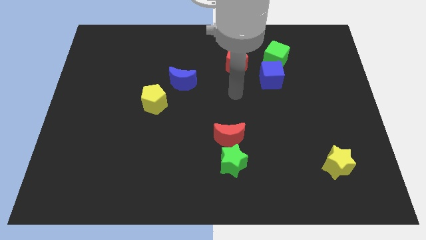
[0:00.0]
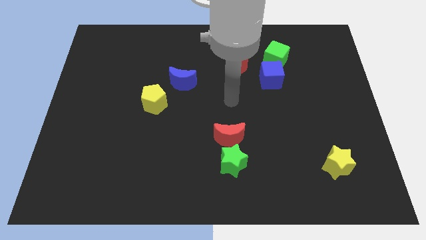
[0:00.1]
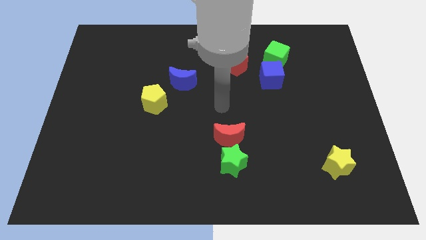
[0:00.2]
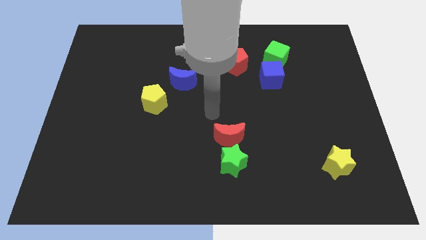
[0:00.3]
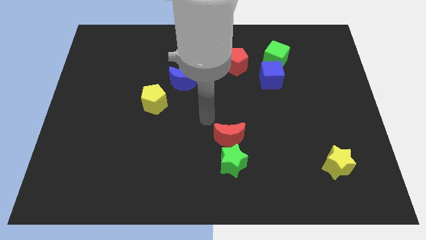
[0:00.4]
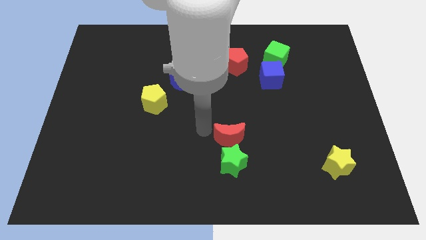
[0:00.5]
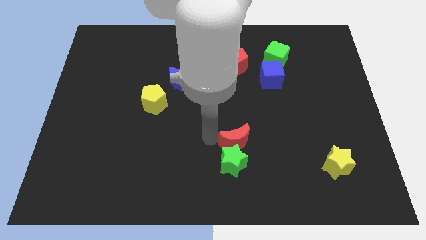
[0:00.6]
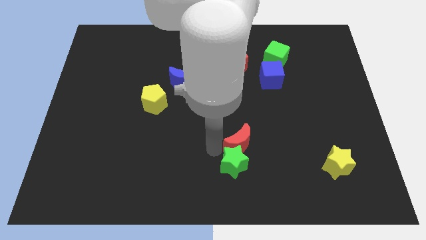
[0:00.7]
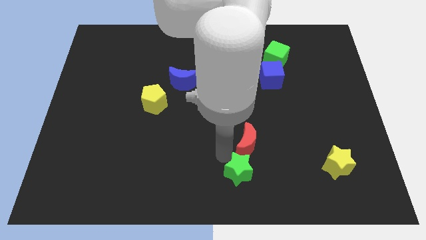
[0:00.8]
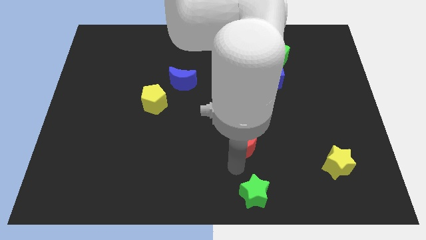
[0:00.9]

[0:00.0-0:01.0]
pull the red moon apart from the green star

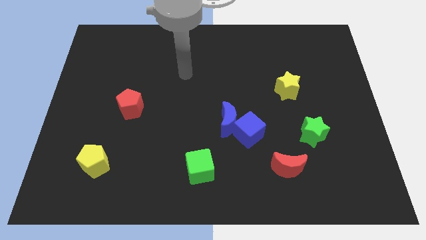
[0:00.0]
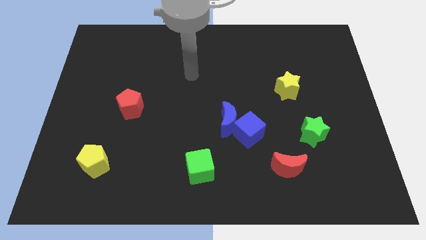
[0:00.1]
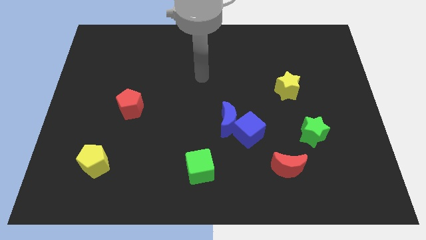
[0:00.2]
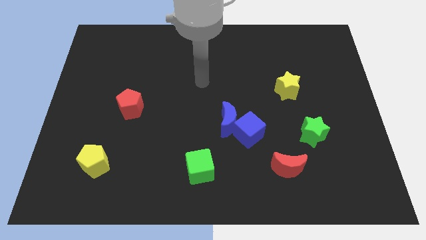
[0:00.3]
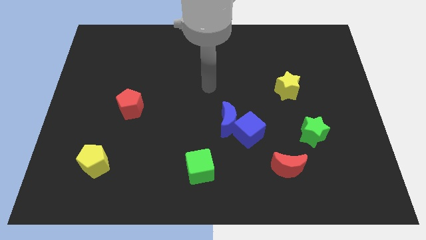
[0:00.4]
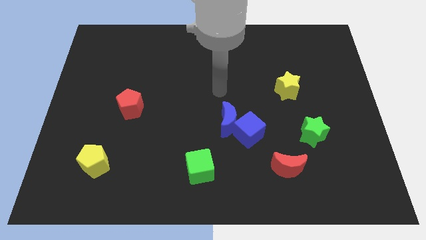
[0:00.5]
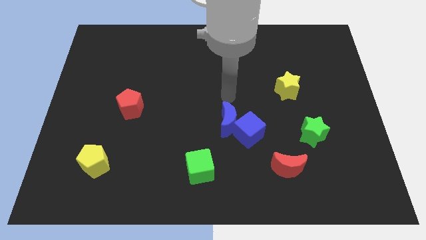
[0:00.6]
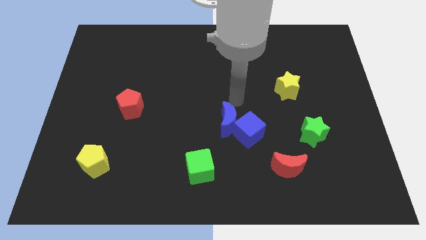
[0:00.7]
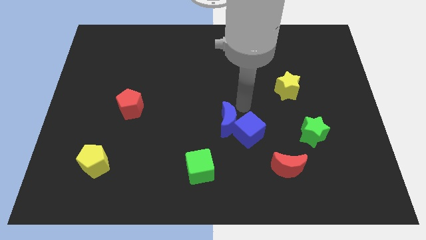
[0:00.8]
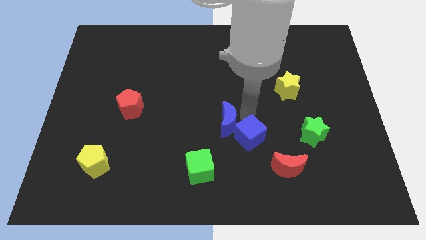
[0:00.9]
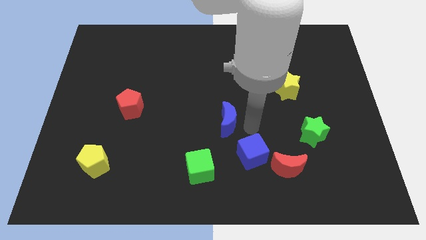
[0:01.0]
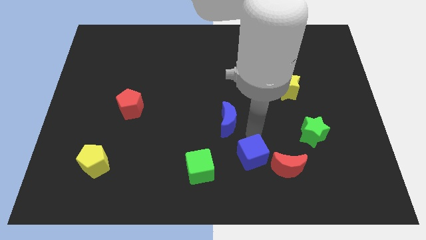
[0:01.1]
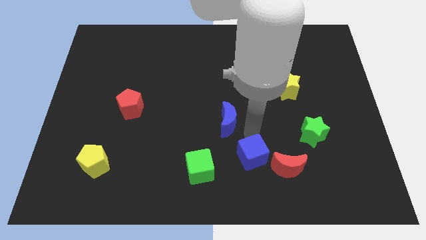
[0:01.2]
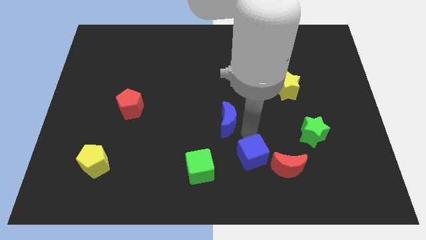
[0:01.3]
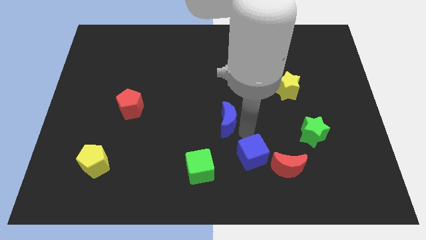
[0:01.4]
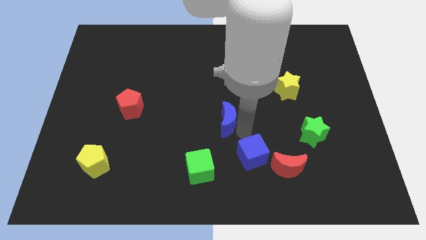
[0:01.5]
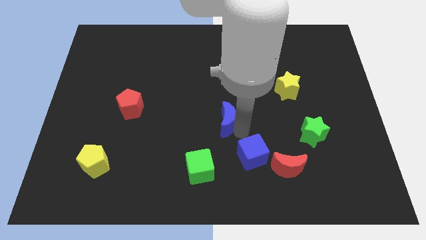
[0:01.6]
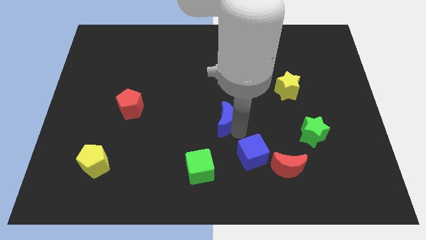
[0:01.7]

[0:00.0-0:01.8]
separate the blue moon from the blue cube

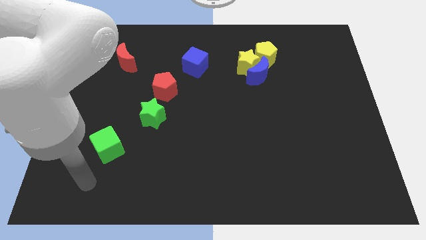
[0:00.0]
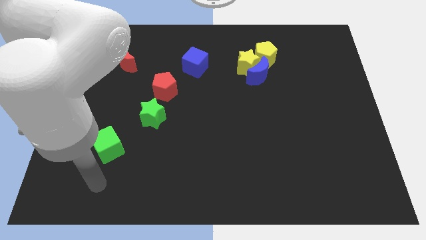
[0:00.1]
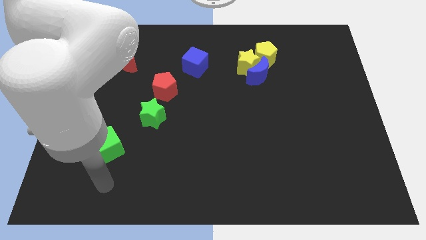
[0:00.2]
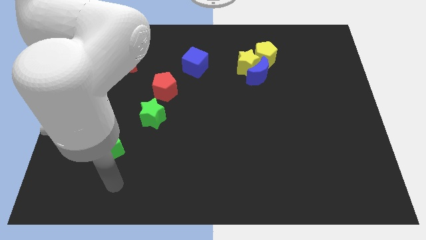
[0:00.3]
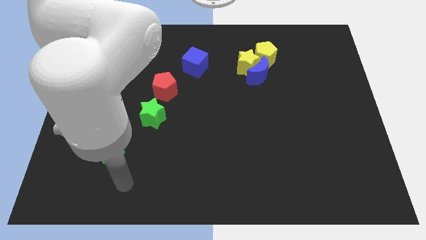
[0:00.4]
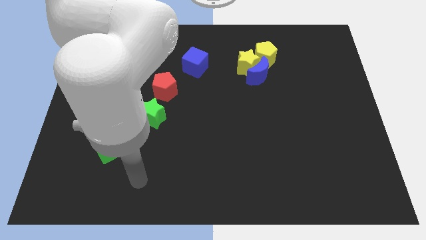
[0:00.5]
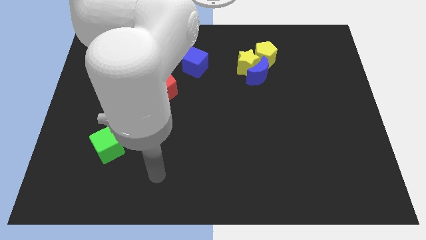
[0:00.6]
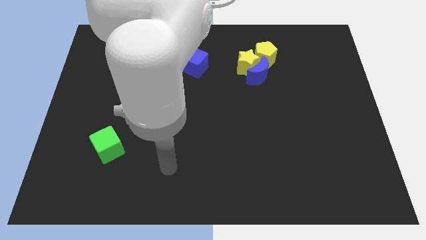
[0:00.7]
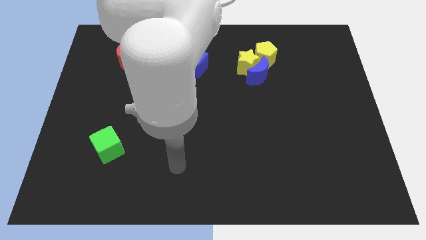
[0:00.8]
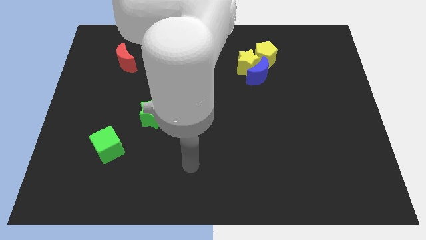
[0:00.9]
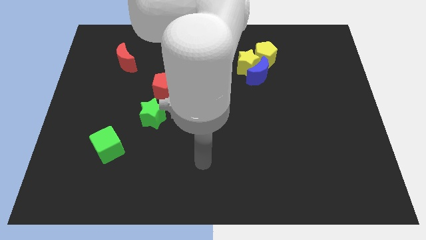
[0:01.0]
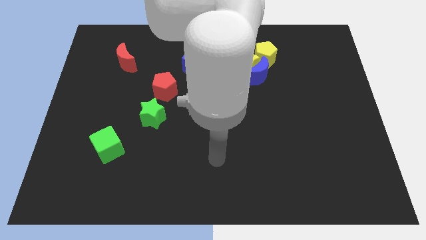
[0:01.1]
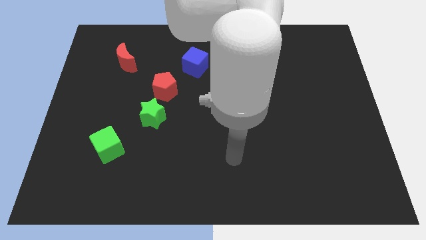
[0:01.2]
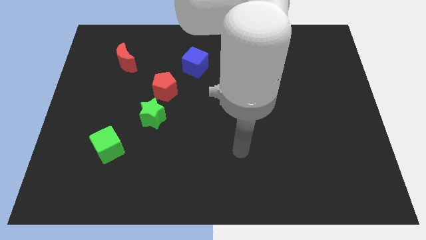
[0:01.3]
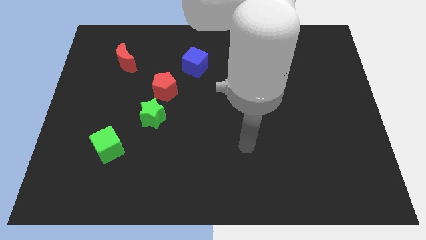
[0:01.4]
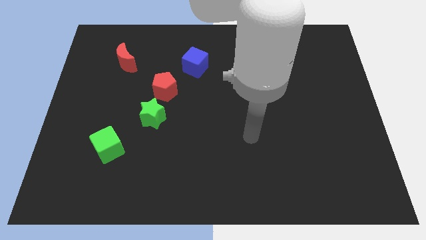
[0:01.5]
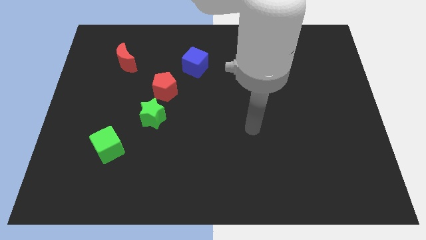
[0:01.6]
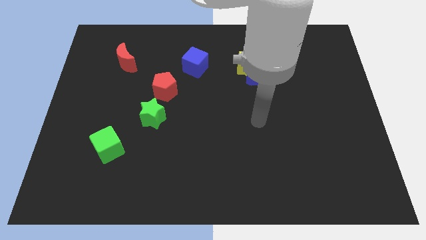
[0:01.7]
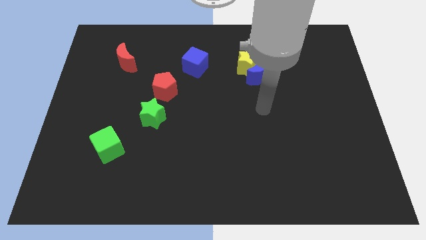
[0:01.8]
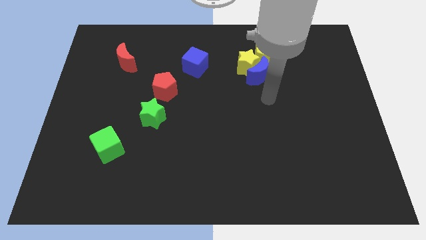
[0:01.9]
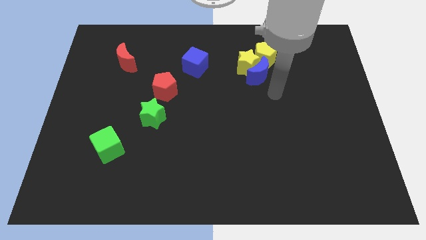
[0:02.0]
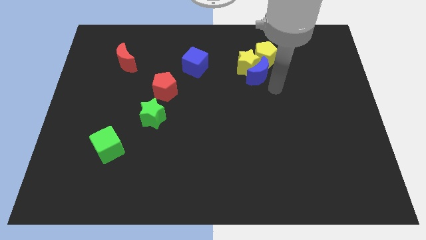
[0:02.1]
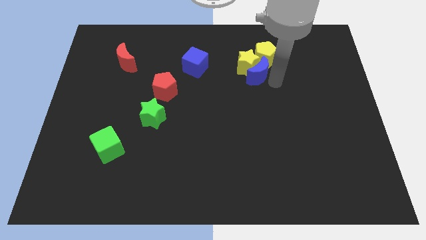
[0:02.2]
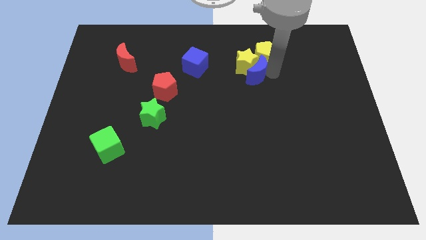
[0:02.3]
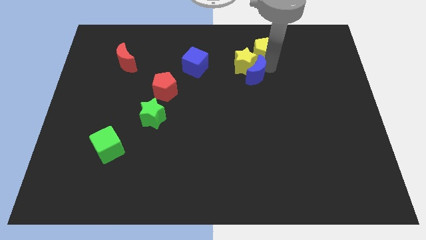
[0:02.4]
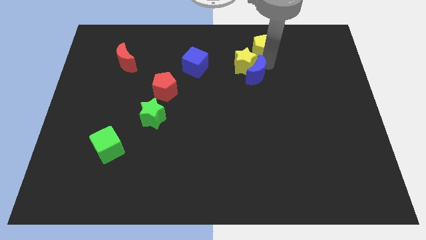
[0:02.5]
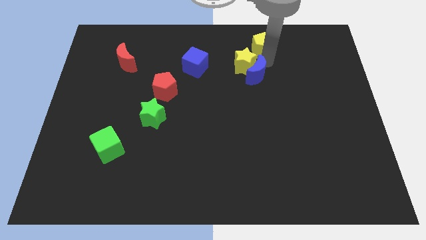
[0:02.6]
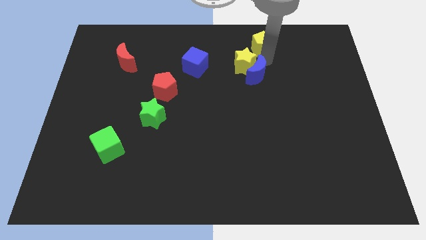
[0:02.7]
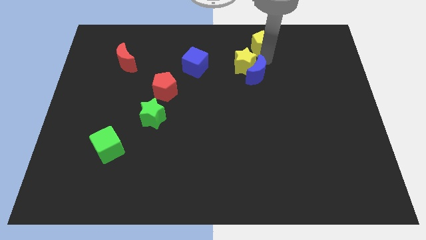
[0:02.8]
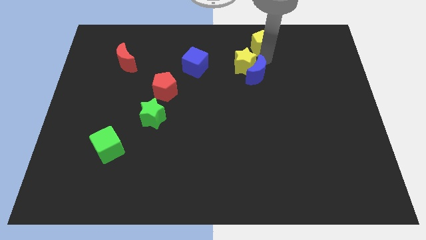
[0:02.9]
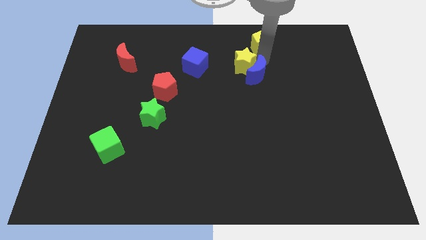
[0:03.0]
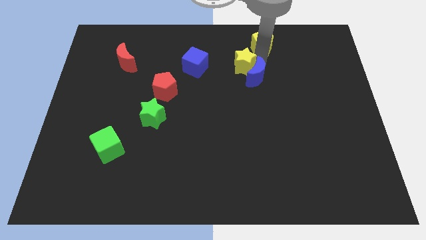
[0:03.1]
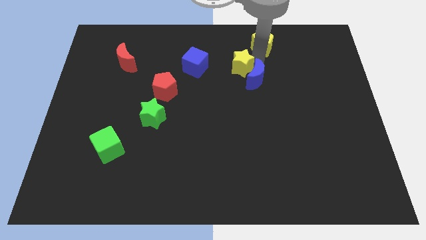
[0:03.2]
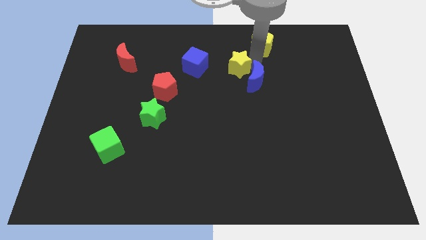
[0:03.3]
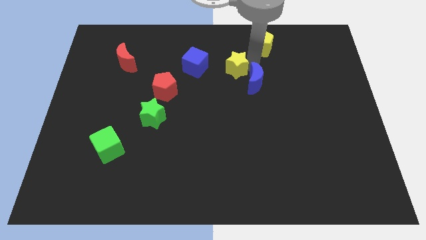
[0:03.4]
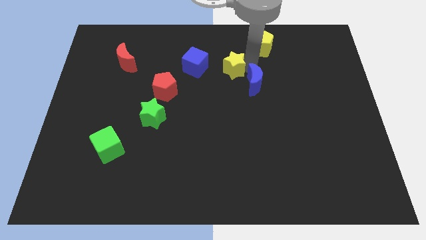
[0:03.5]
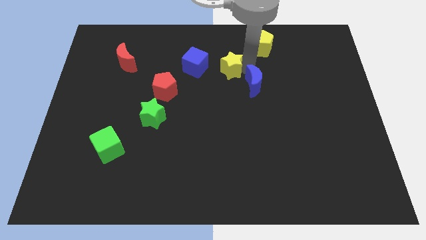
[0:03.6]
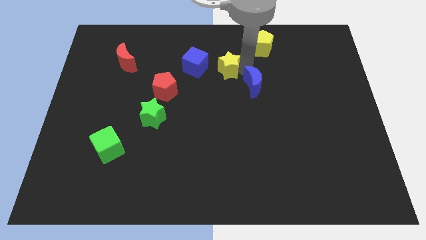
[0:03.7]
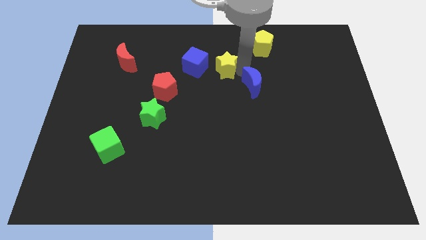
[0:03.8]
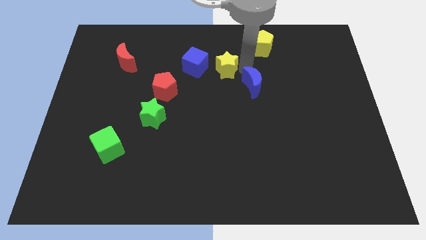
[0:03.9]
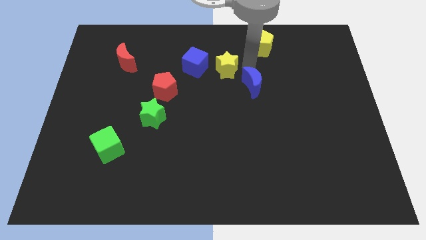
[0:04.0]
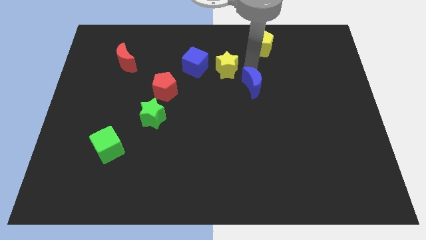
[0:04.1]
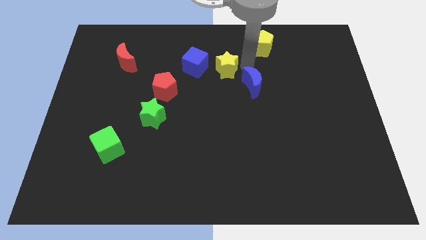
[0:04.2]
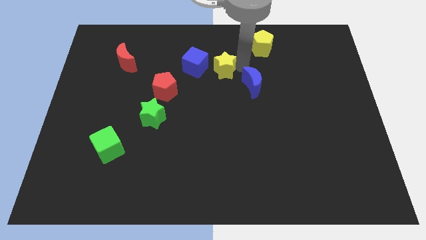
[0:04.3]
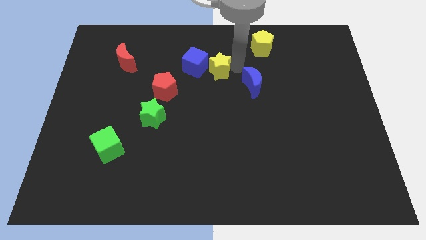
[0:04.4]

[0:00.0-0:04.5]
pull the yellow star apart from the blue moon and yellow pentagon

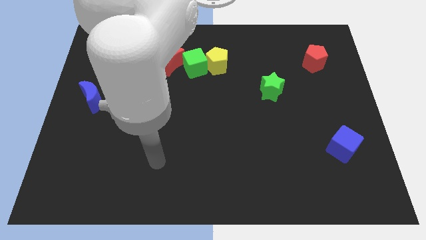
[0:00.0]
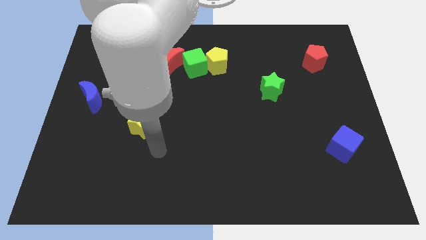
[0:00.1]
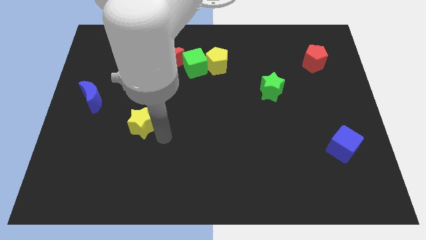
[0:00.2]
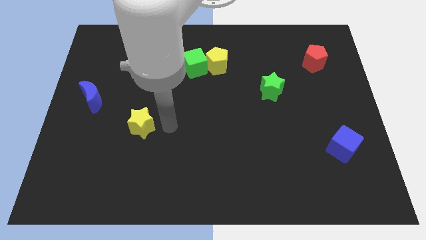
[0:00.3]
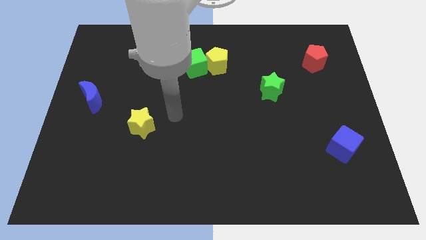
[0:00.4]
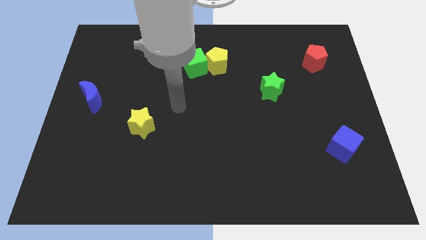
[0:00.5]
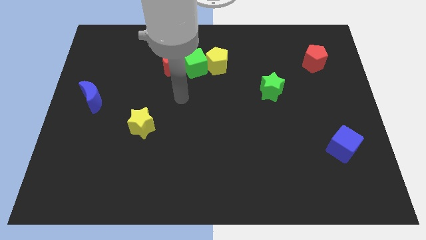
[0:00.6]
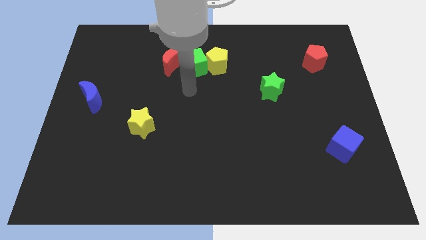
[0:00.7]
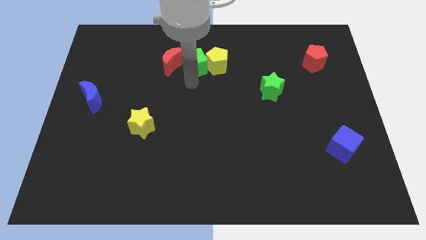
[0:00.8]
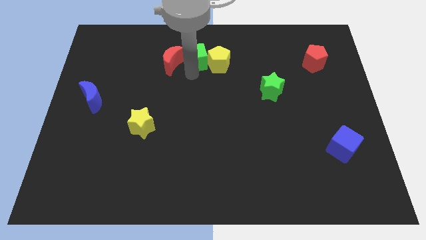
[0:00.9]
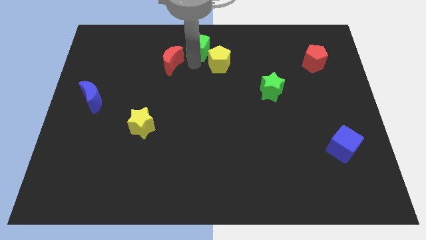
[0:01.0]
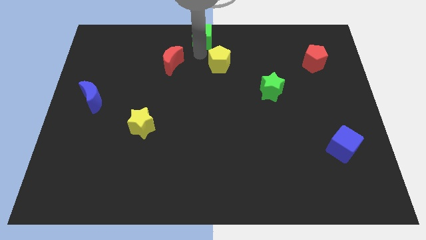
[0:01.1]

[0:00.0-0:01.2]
separate the yellow pentagon from the green cube

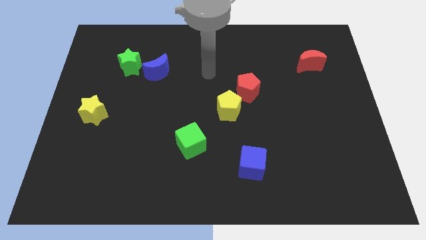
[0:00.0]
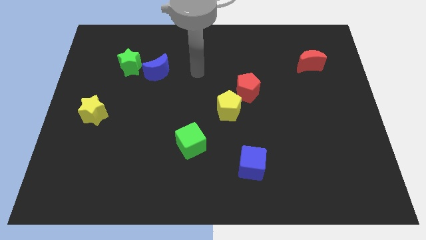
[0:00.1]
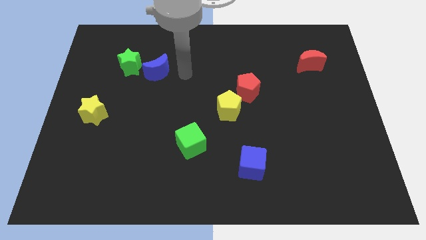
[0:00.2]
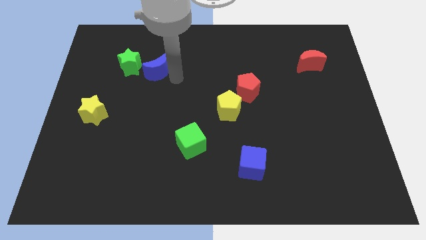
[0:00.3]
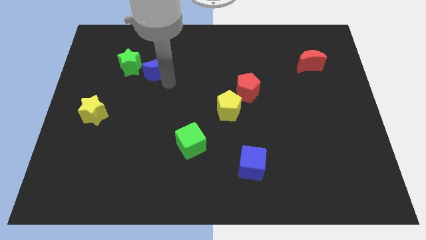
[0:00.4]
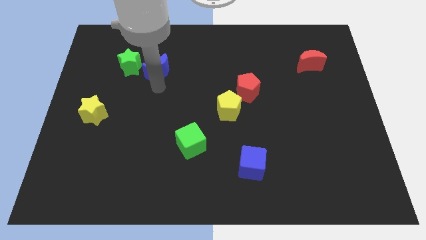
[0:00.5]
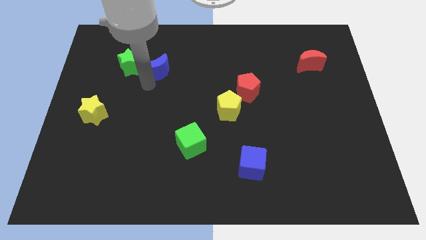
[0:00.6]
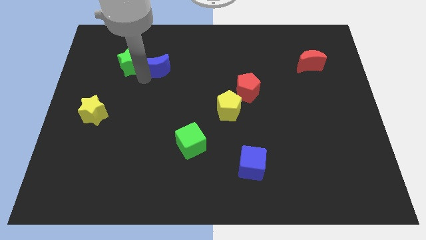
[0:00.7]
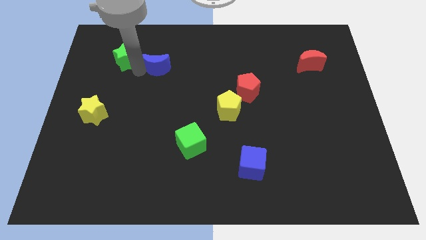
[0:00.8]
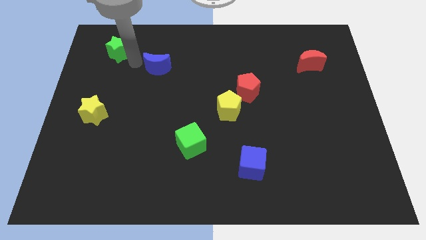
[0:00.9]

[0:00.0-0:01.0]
pull the blue moon apart from the green star

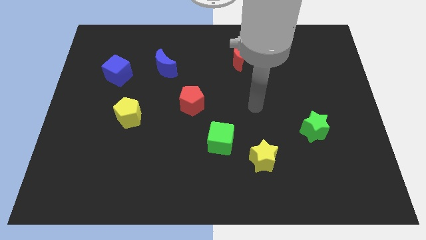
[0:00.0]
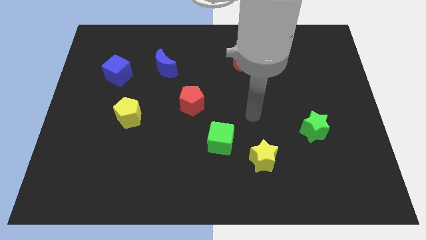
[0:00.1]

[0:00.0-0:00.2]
separate the green cube from the yellow star
